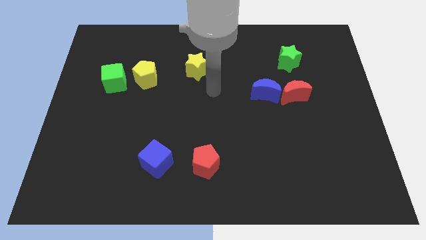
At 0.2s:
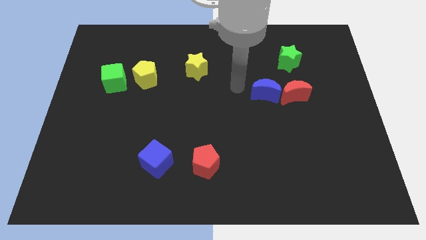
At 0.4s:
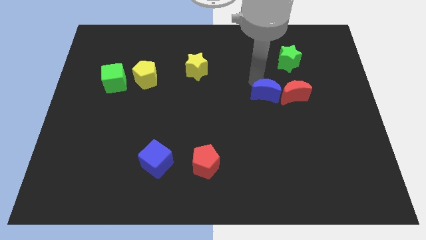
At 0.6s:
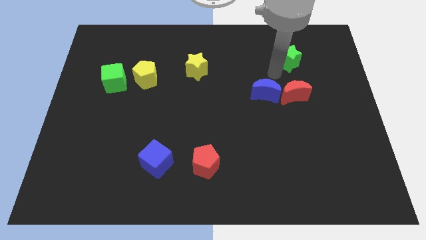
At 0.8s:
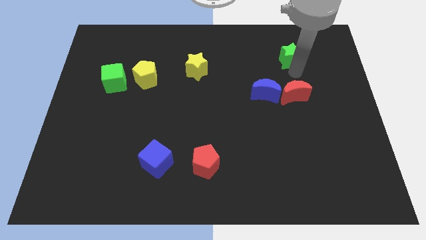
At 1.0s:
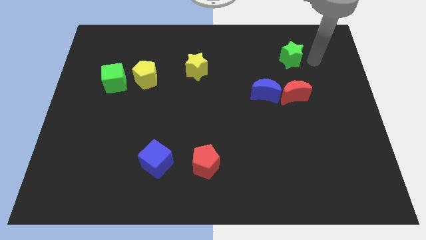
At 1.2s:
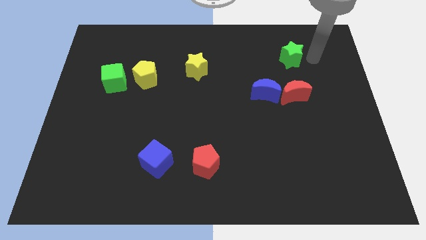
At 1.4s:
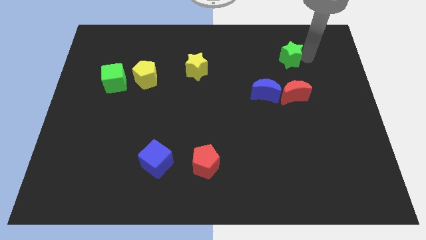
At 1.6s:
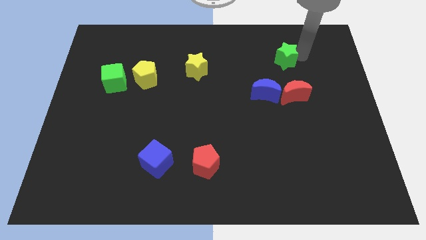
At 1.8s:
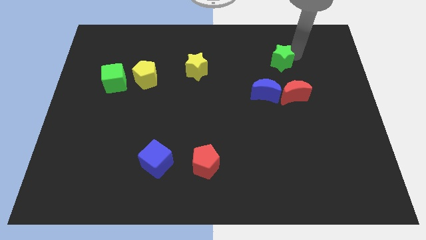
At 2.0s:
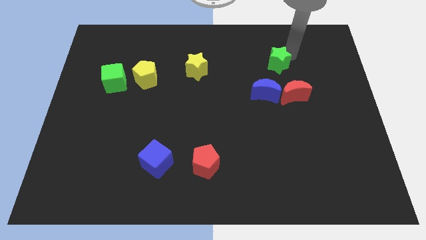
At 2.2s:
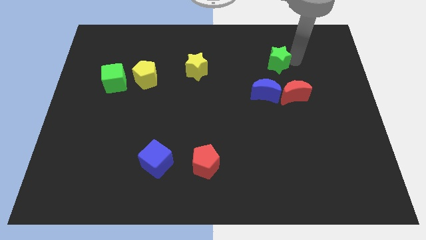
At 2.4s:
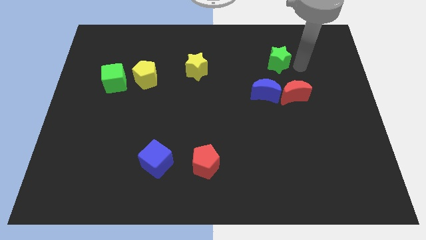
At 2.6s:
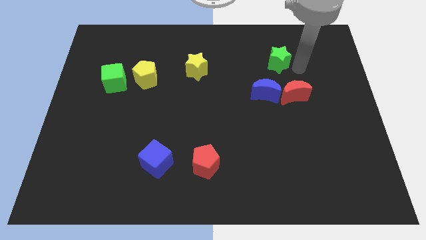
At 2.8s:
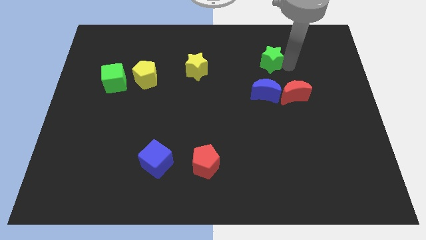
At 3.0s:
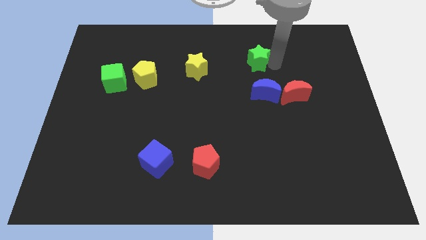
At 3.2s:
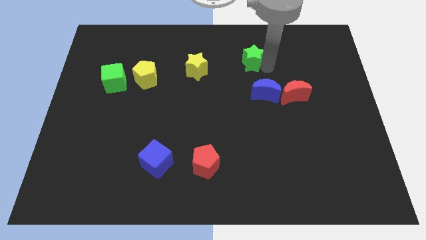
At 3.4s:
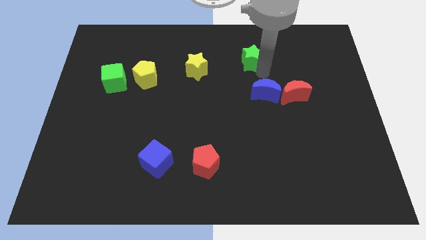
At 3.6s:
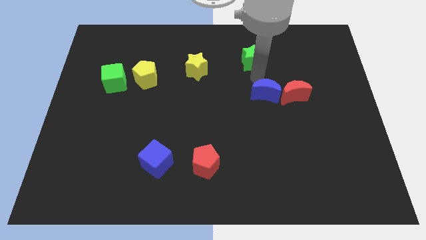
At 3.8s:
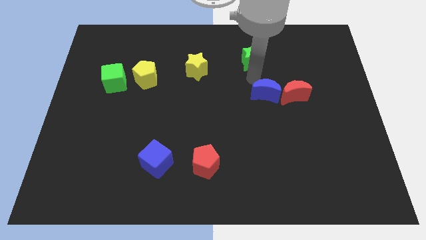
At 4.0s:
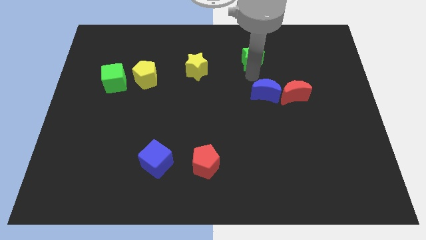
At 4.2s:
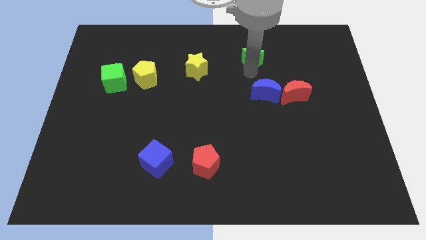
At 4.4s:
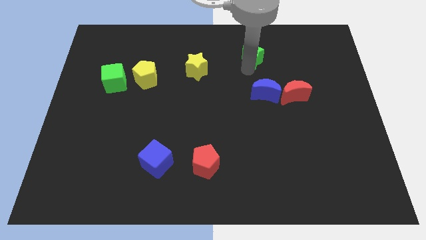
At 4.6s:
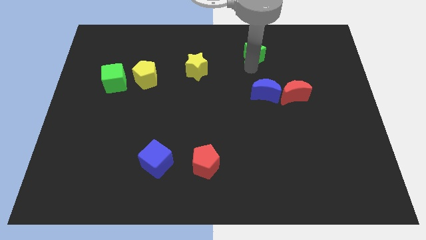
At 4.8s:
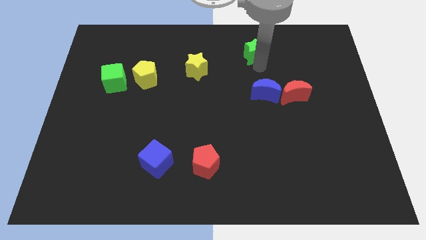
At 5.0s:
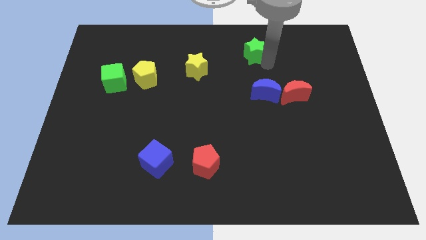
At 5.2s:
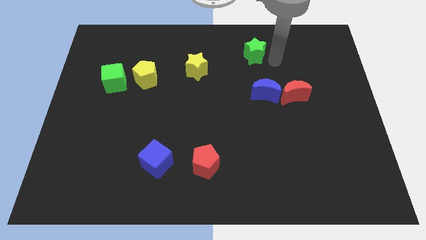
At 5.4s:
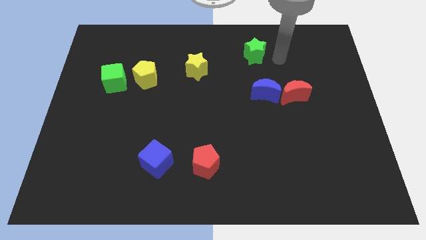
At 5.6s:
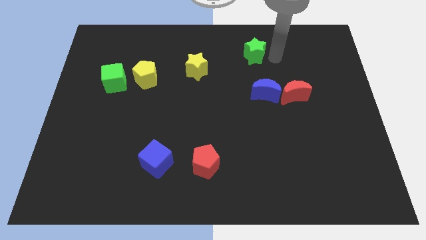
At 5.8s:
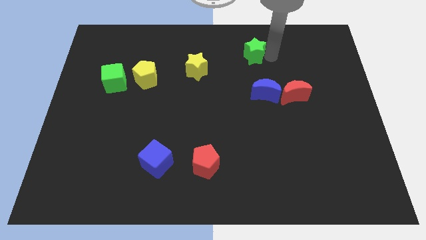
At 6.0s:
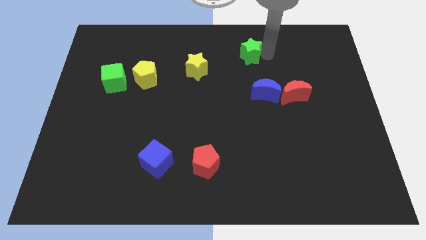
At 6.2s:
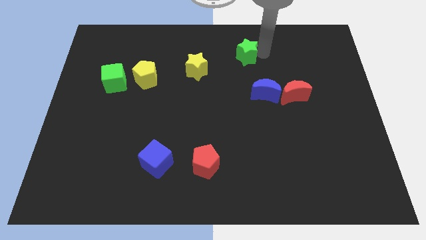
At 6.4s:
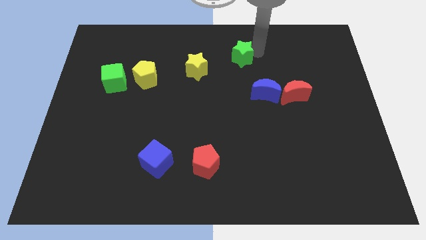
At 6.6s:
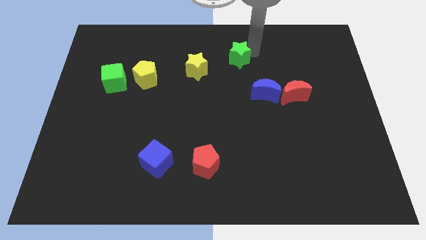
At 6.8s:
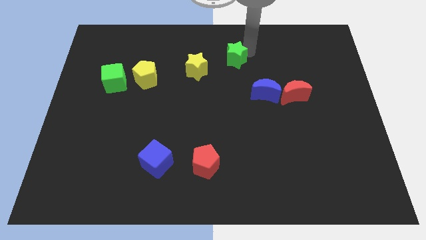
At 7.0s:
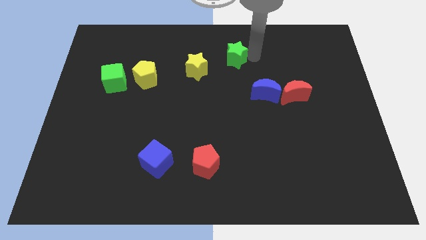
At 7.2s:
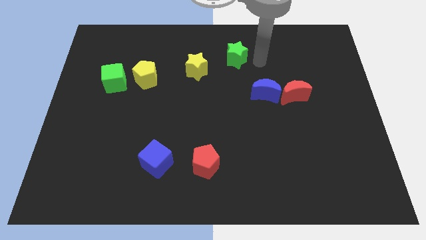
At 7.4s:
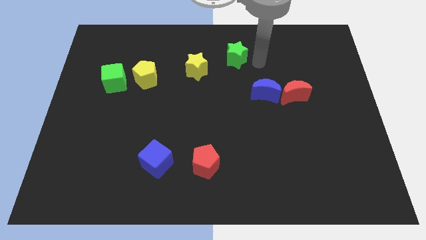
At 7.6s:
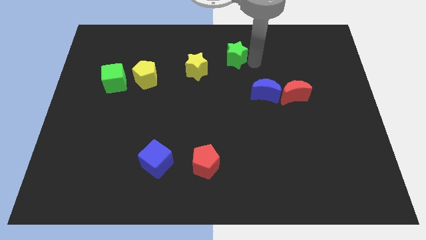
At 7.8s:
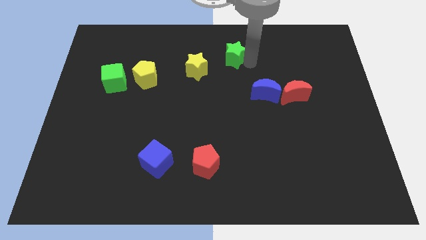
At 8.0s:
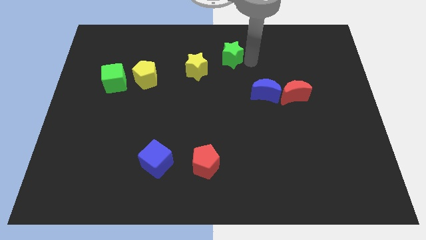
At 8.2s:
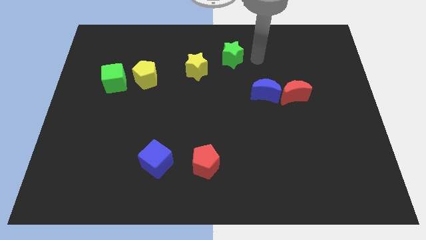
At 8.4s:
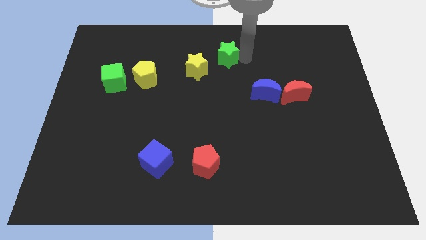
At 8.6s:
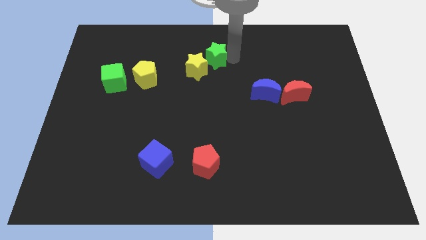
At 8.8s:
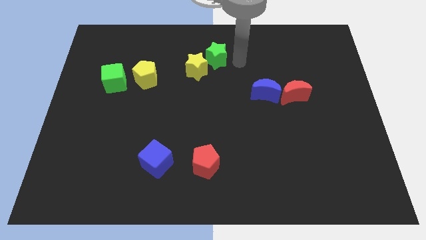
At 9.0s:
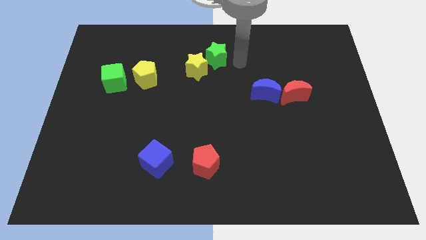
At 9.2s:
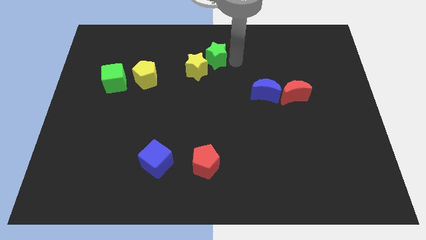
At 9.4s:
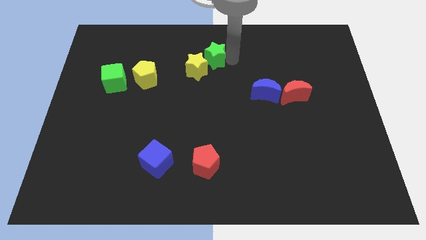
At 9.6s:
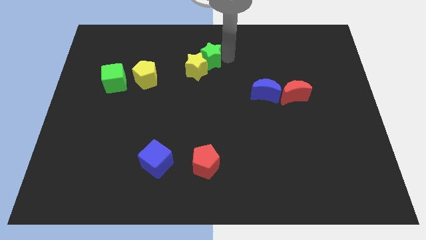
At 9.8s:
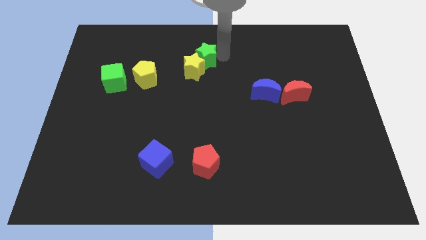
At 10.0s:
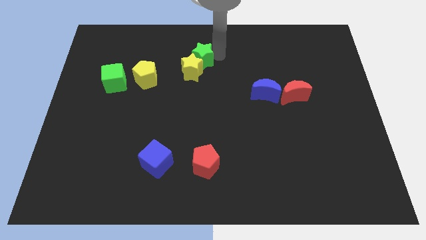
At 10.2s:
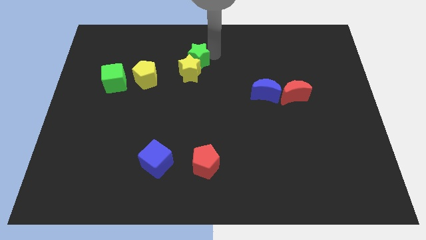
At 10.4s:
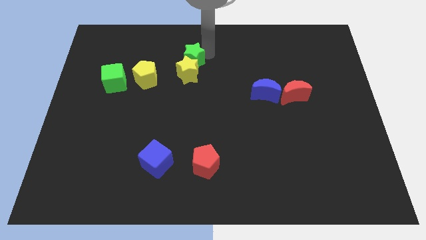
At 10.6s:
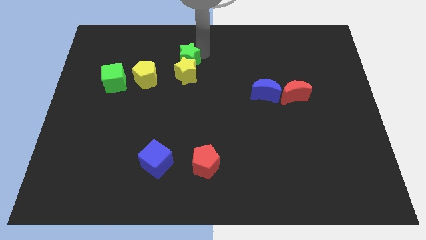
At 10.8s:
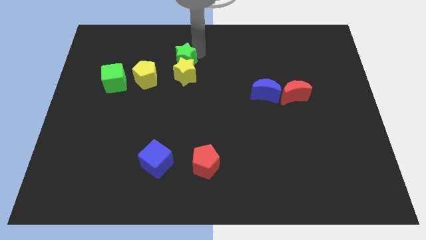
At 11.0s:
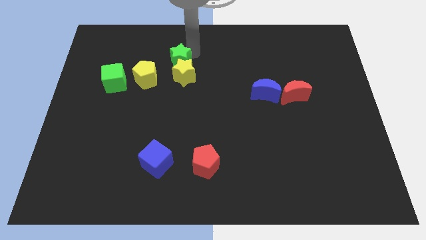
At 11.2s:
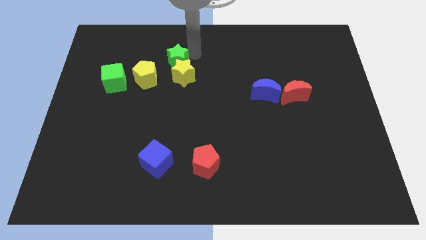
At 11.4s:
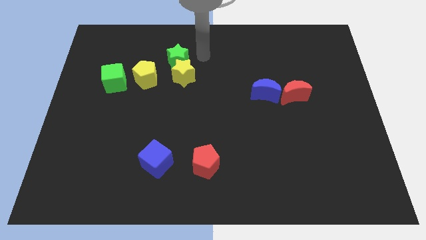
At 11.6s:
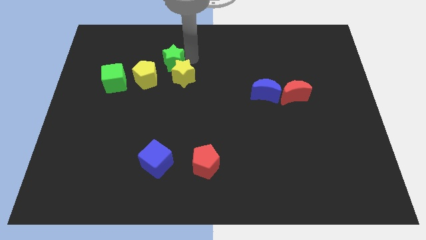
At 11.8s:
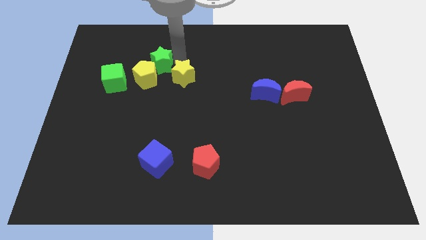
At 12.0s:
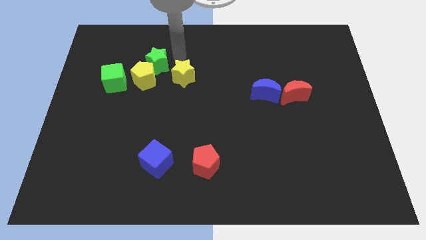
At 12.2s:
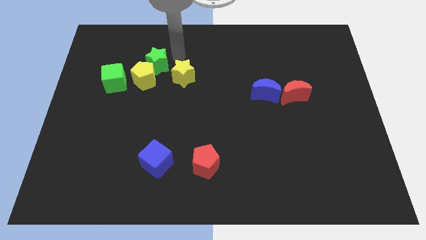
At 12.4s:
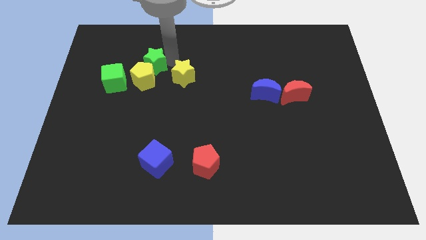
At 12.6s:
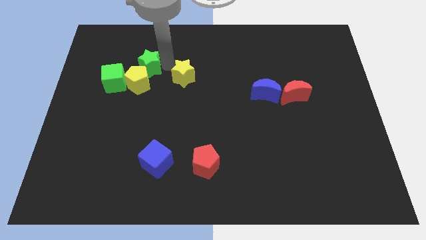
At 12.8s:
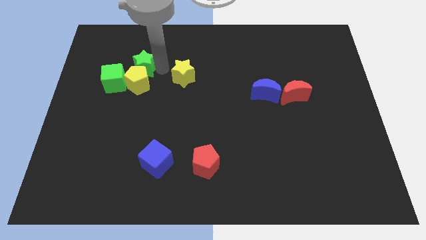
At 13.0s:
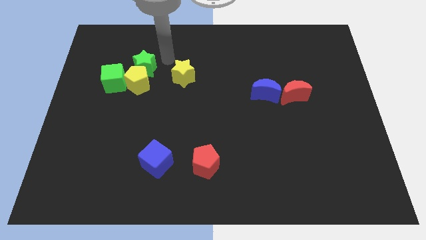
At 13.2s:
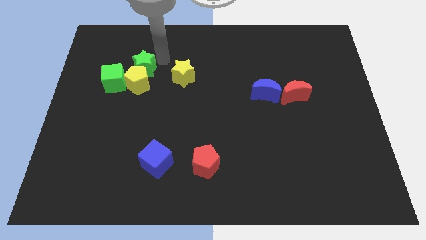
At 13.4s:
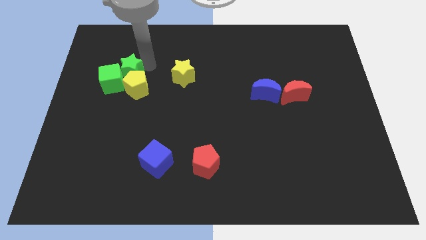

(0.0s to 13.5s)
slide the green star close to the green cube

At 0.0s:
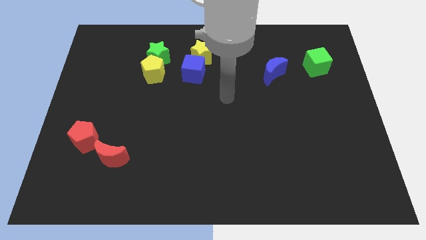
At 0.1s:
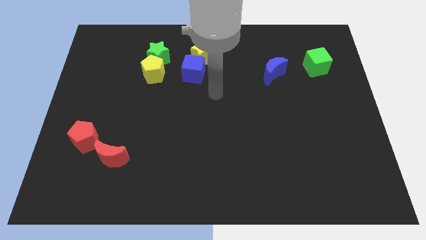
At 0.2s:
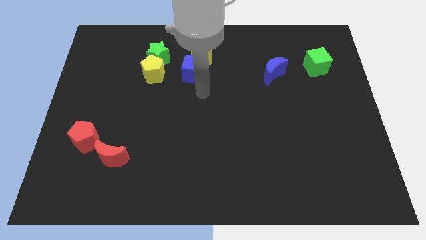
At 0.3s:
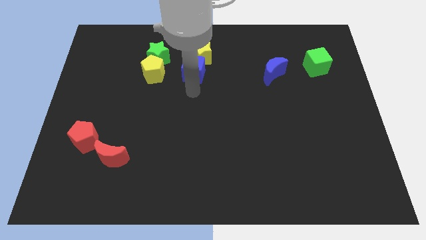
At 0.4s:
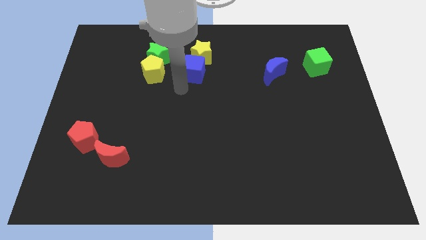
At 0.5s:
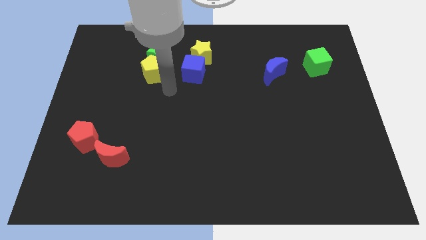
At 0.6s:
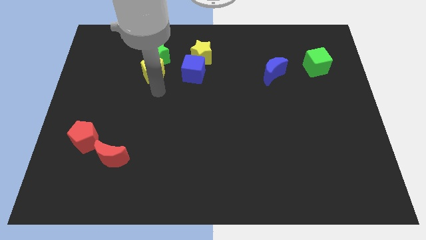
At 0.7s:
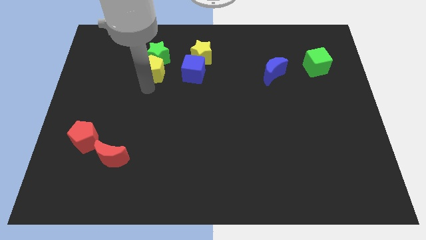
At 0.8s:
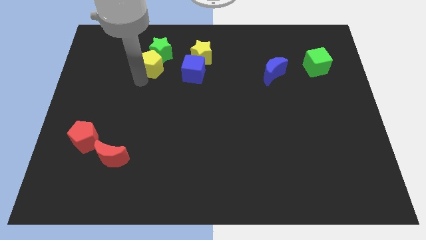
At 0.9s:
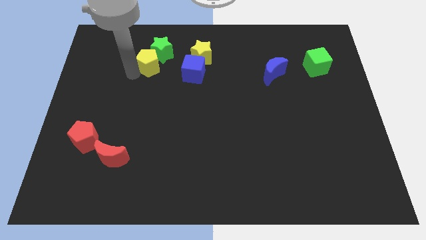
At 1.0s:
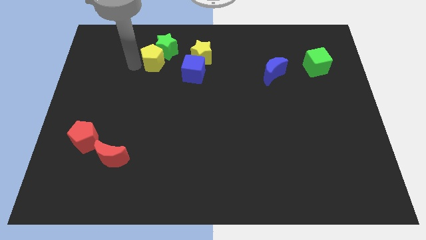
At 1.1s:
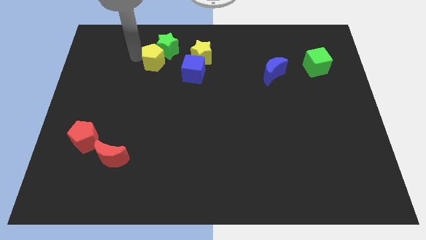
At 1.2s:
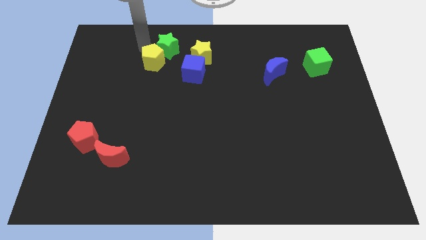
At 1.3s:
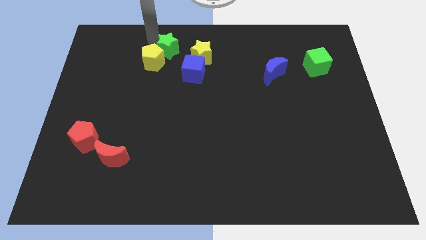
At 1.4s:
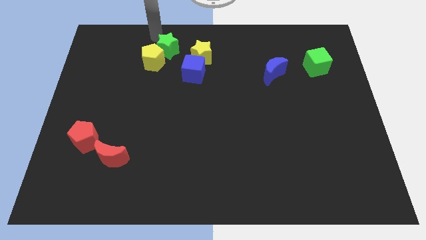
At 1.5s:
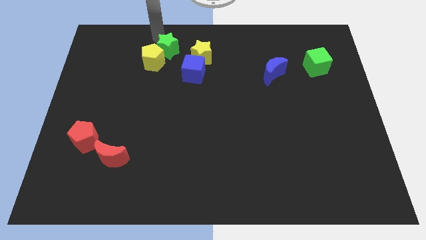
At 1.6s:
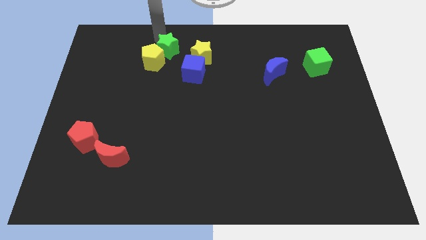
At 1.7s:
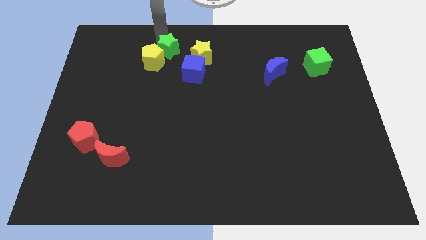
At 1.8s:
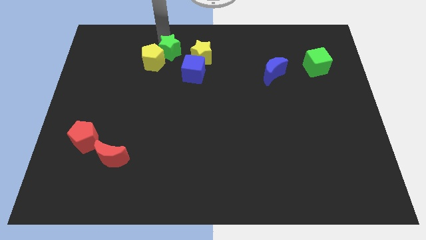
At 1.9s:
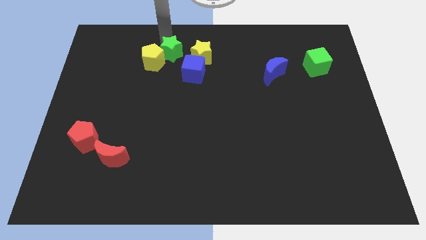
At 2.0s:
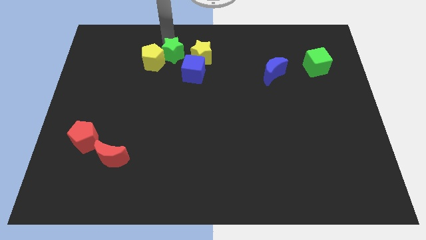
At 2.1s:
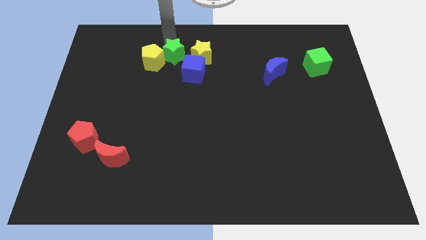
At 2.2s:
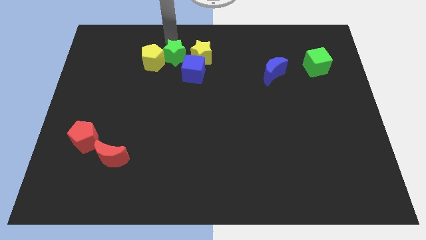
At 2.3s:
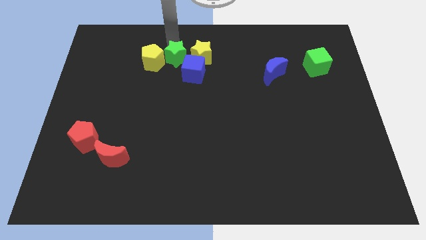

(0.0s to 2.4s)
put the green star next to the yellow star
